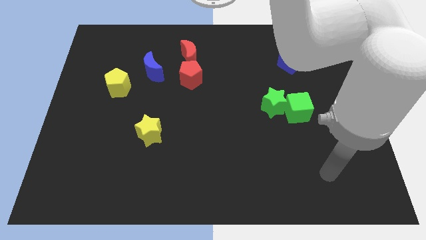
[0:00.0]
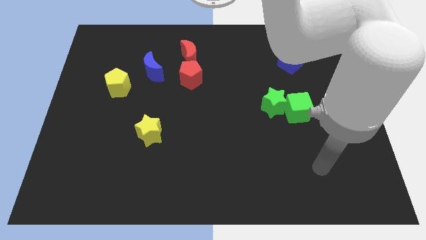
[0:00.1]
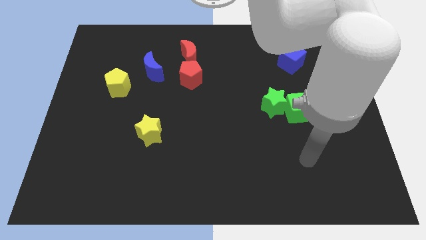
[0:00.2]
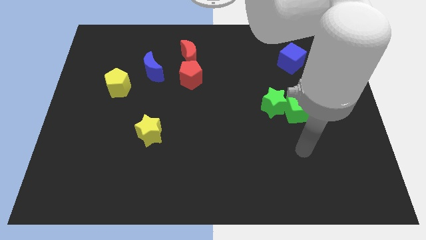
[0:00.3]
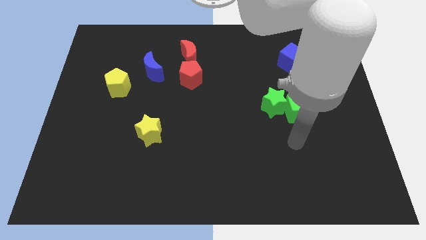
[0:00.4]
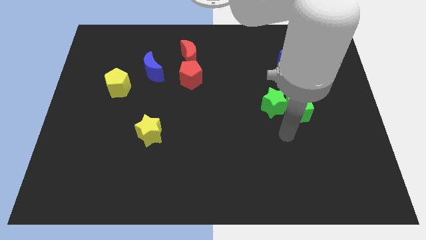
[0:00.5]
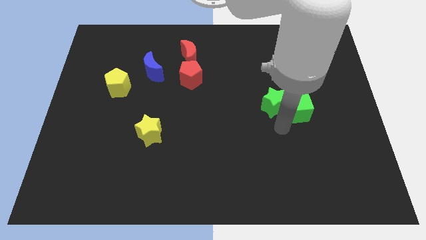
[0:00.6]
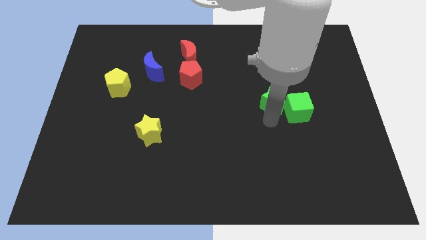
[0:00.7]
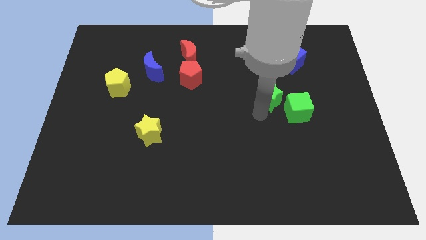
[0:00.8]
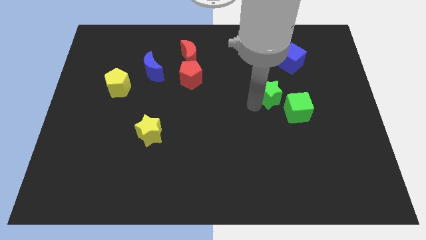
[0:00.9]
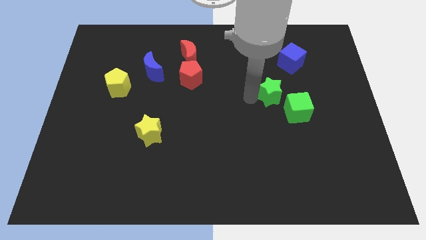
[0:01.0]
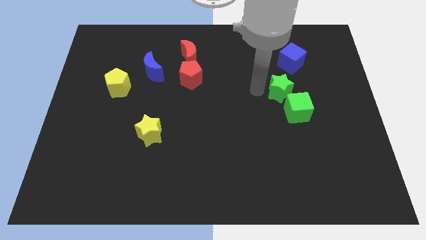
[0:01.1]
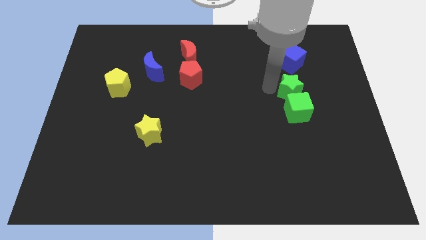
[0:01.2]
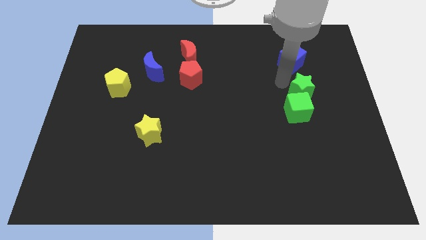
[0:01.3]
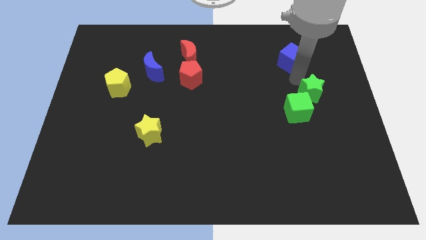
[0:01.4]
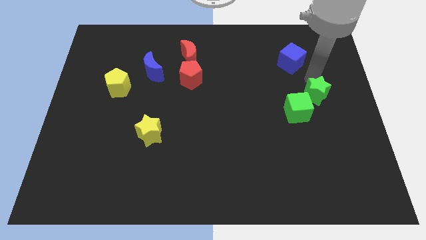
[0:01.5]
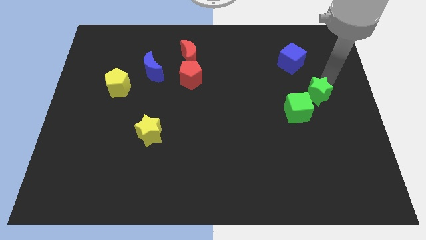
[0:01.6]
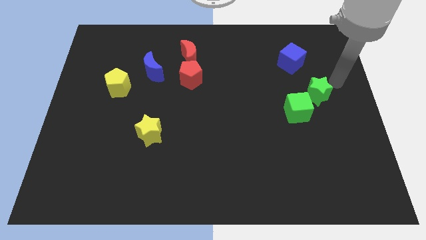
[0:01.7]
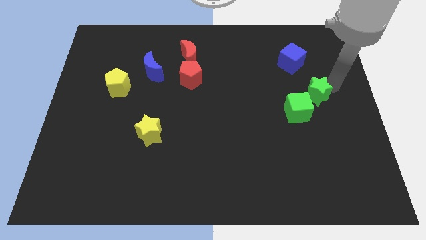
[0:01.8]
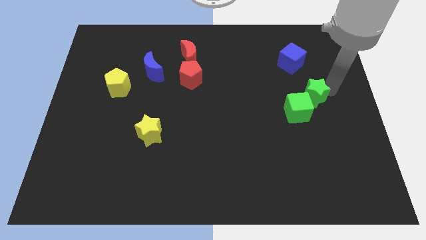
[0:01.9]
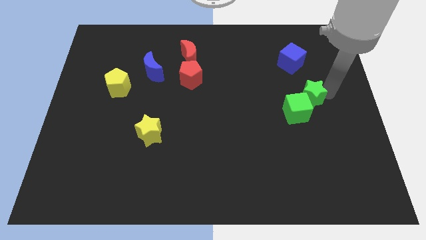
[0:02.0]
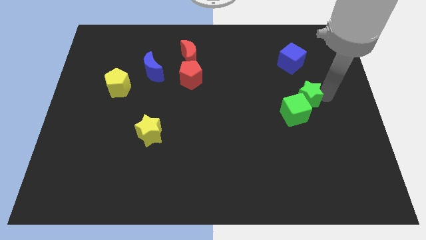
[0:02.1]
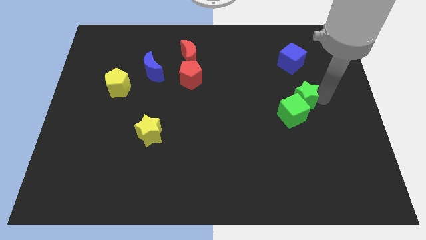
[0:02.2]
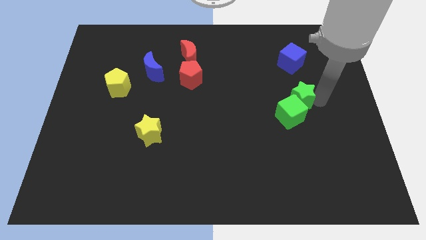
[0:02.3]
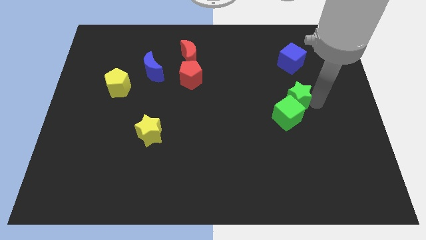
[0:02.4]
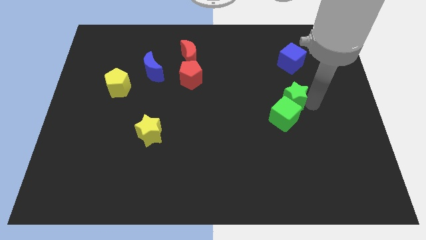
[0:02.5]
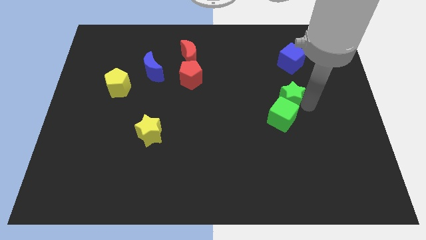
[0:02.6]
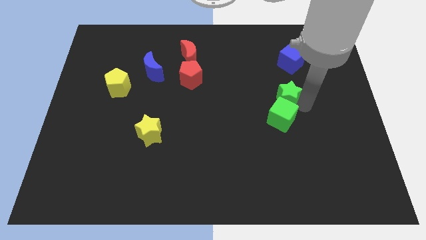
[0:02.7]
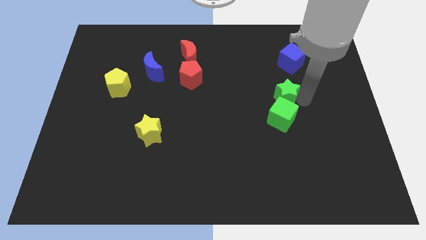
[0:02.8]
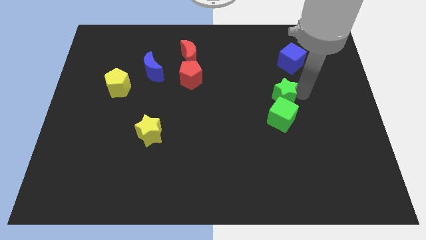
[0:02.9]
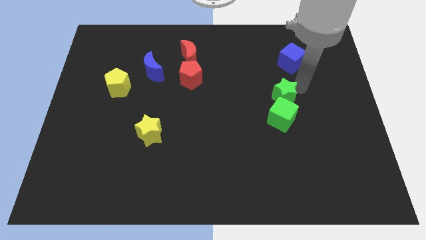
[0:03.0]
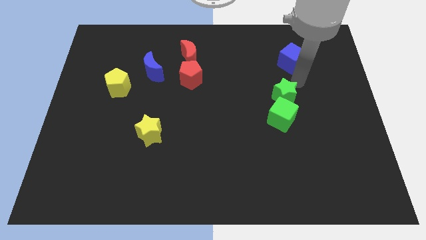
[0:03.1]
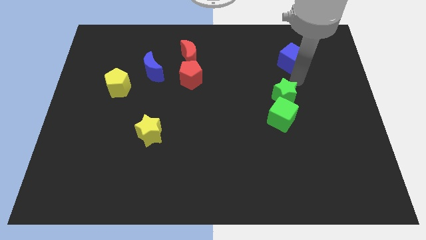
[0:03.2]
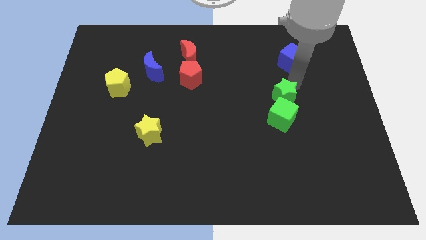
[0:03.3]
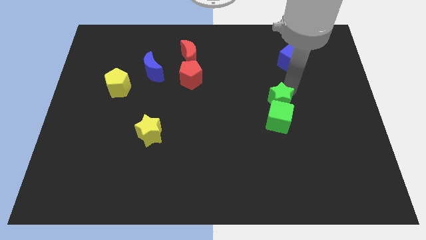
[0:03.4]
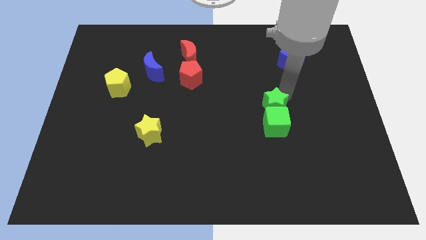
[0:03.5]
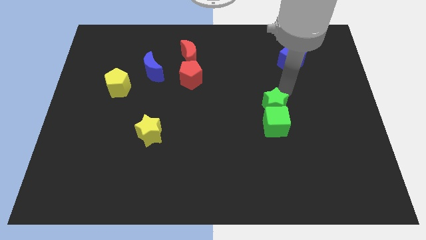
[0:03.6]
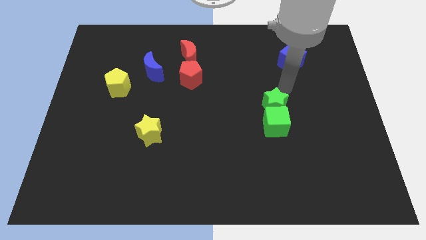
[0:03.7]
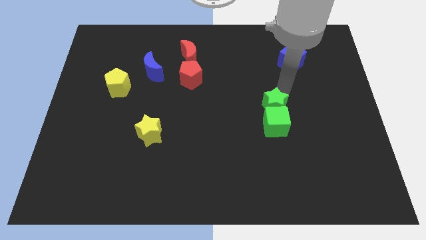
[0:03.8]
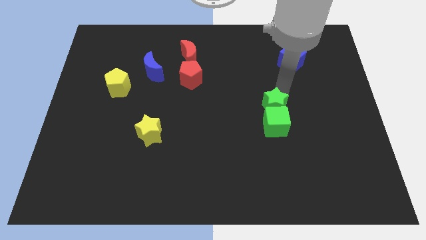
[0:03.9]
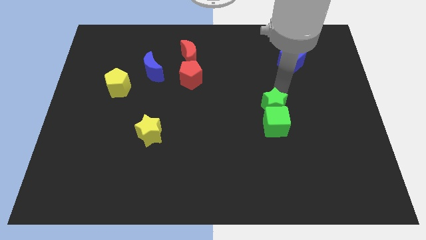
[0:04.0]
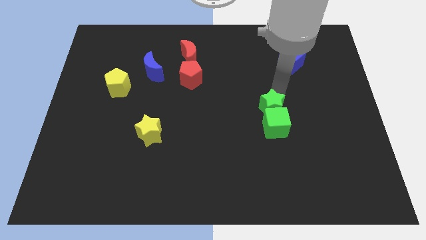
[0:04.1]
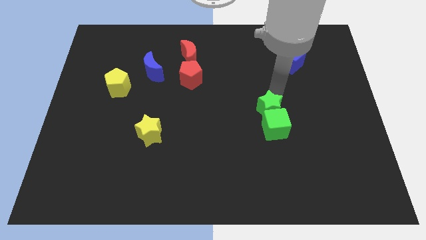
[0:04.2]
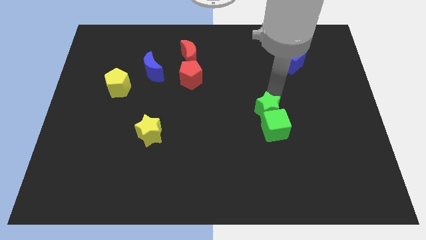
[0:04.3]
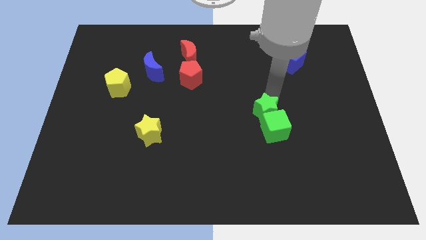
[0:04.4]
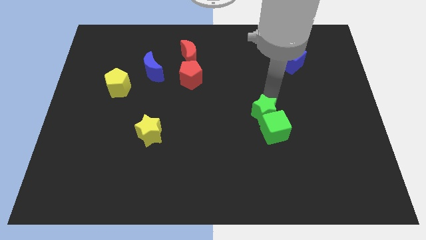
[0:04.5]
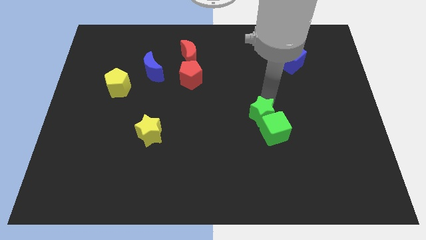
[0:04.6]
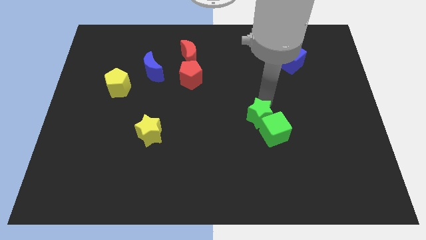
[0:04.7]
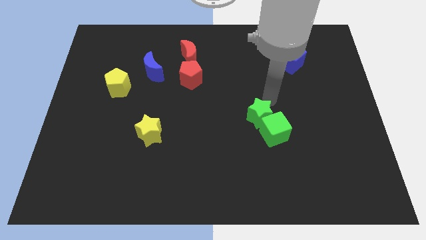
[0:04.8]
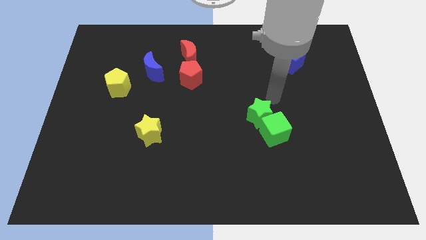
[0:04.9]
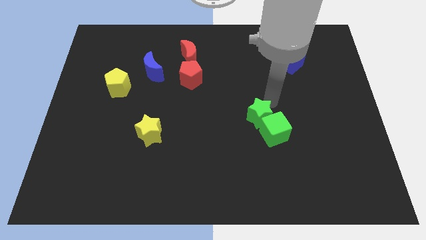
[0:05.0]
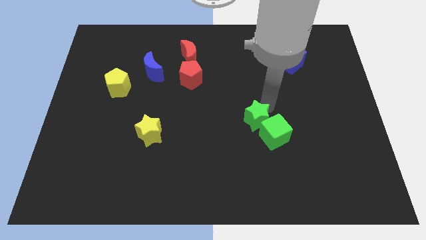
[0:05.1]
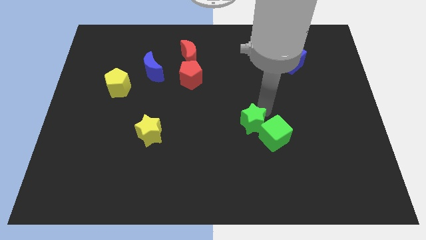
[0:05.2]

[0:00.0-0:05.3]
push the green star downwards and left diagonally a little

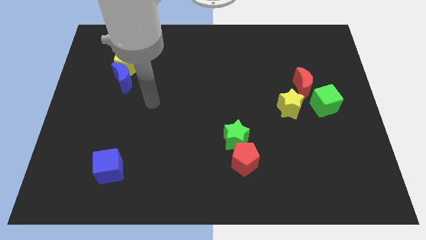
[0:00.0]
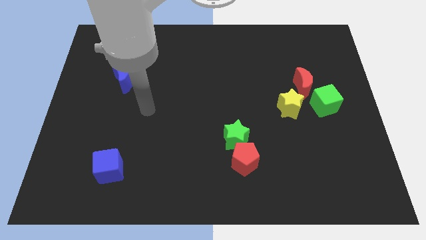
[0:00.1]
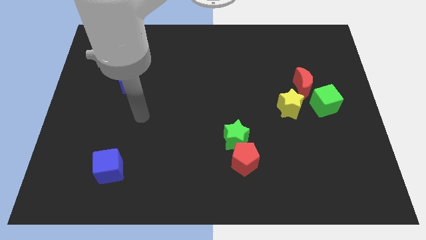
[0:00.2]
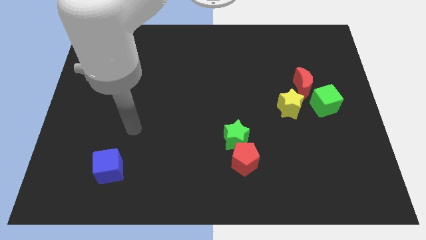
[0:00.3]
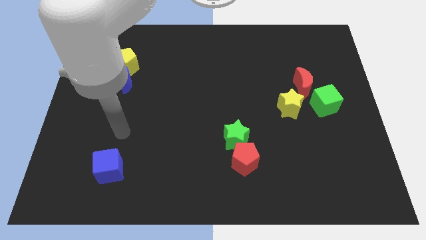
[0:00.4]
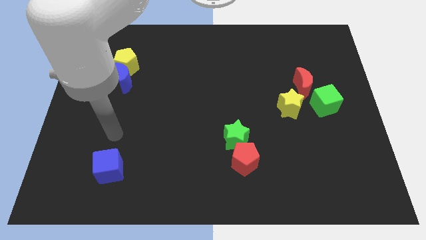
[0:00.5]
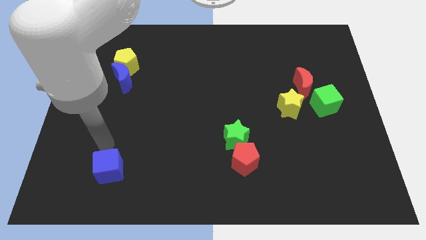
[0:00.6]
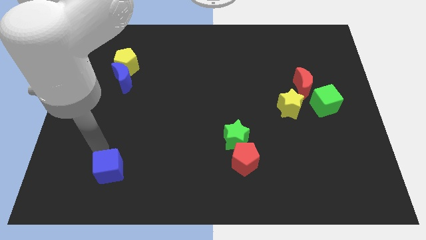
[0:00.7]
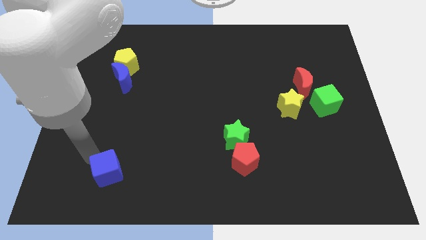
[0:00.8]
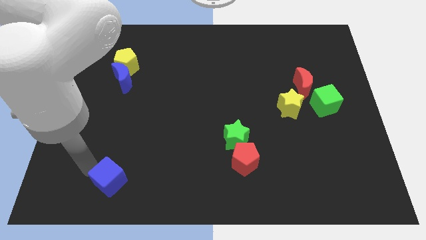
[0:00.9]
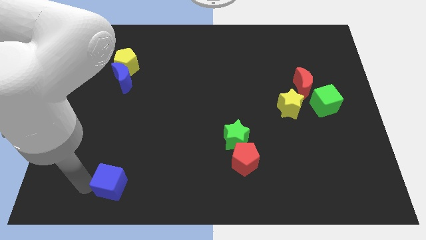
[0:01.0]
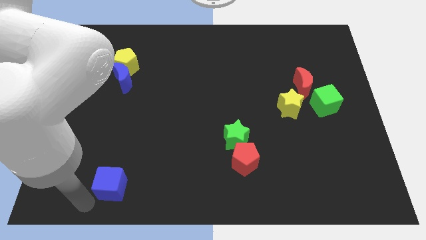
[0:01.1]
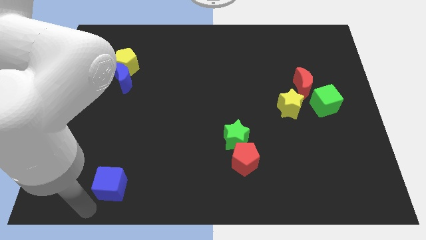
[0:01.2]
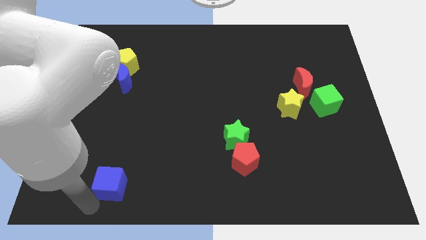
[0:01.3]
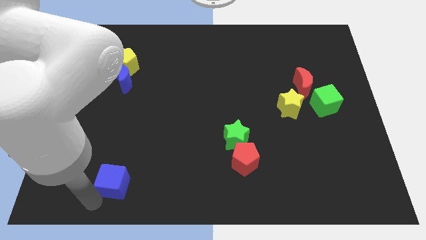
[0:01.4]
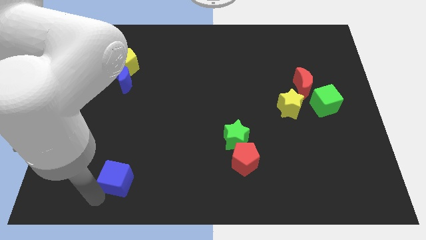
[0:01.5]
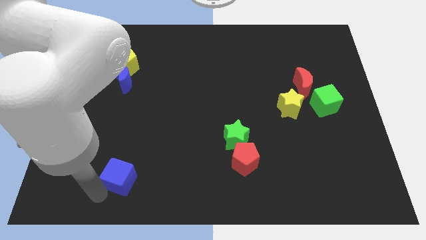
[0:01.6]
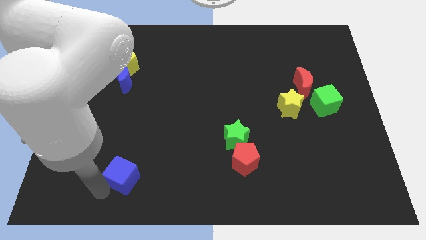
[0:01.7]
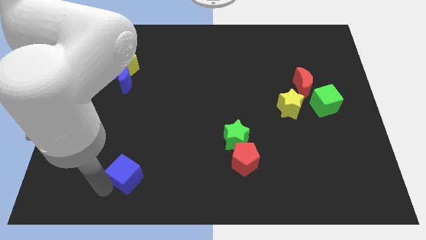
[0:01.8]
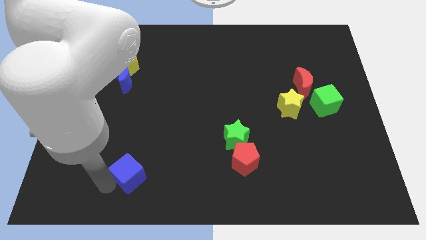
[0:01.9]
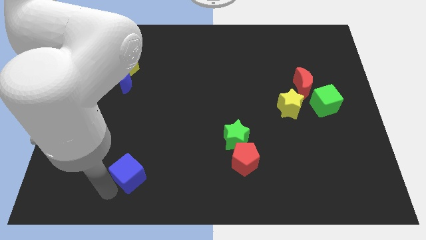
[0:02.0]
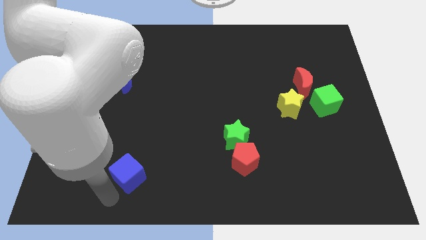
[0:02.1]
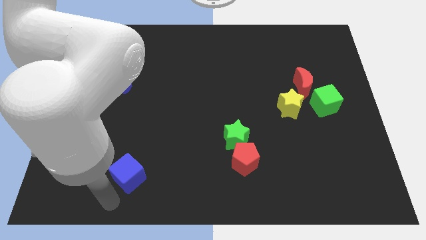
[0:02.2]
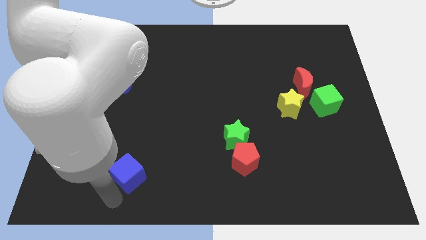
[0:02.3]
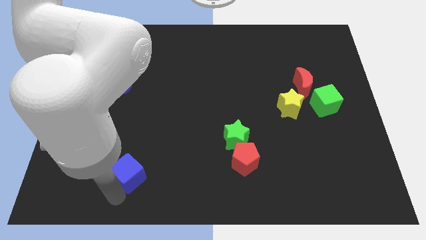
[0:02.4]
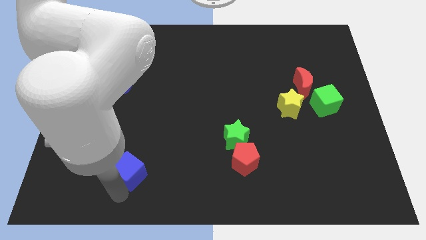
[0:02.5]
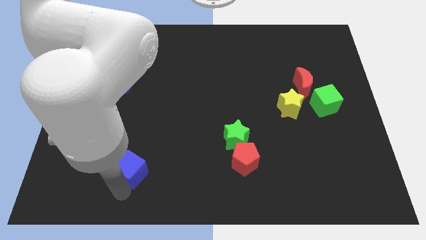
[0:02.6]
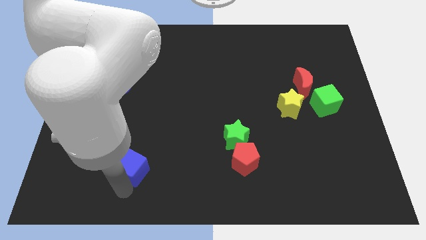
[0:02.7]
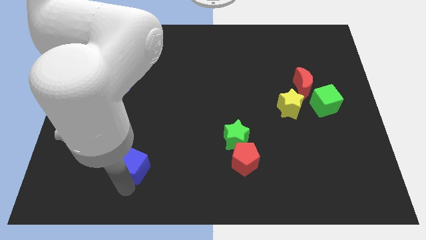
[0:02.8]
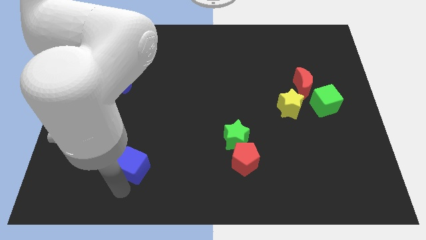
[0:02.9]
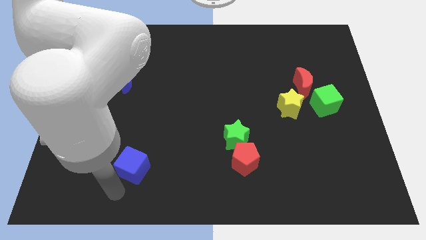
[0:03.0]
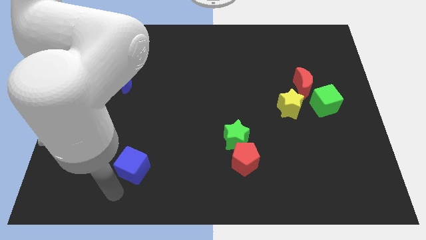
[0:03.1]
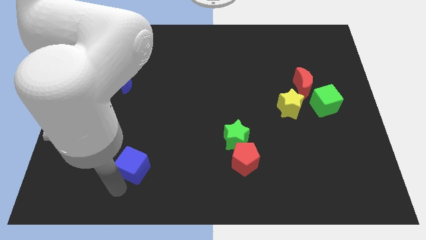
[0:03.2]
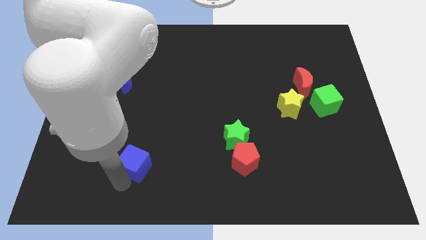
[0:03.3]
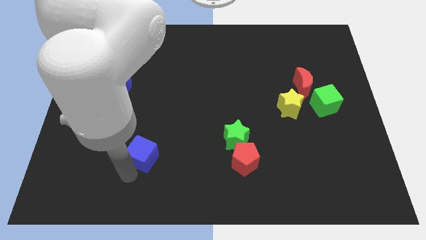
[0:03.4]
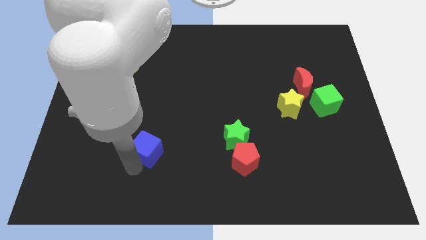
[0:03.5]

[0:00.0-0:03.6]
slightly slide the blue cube upwards and then right
